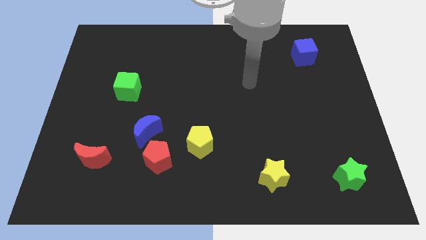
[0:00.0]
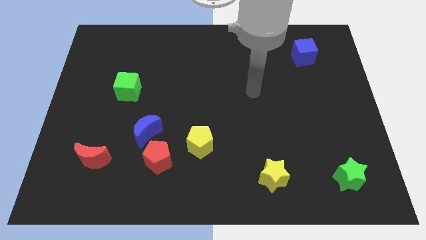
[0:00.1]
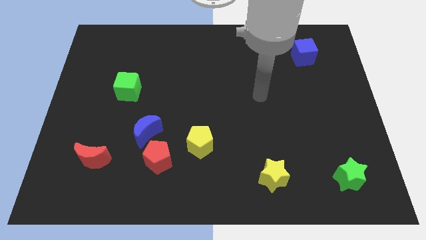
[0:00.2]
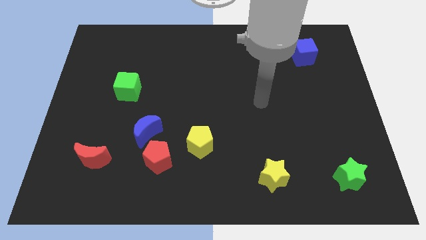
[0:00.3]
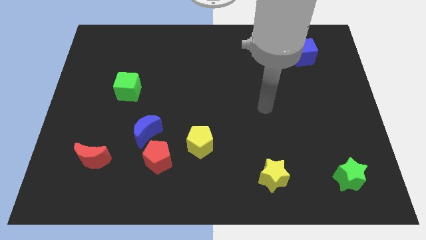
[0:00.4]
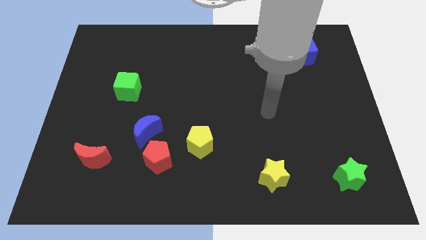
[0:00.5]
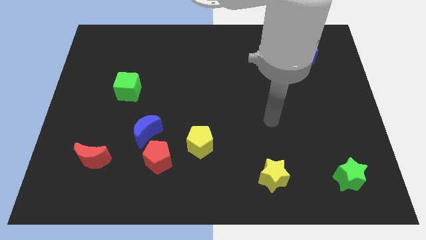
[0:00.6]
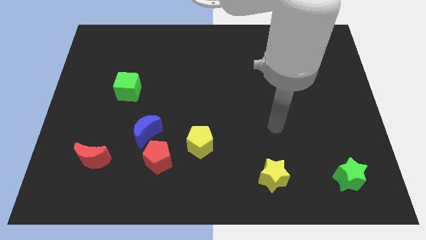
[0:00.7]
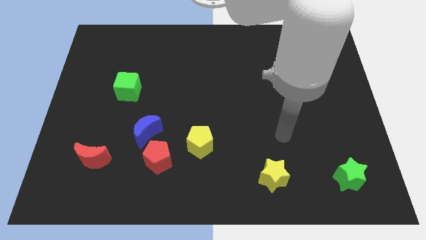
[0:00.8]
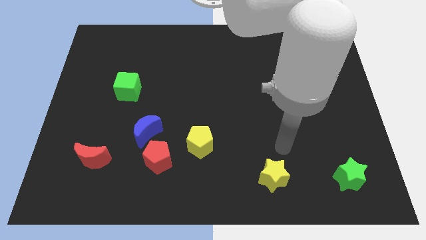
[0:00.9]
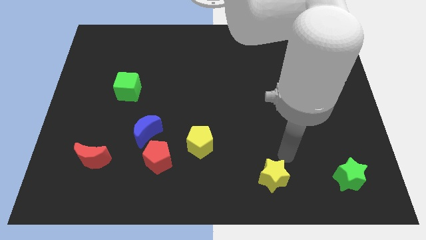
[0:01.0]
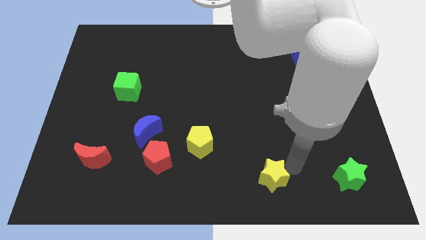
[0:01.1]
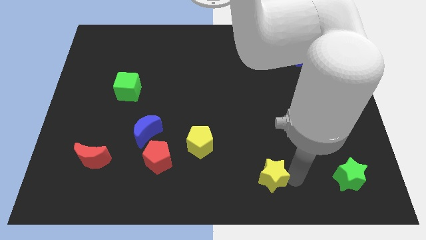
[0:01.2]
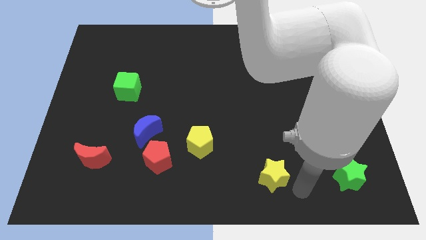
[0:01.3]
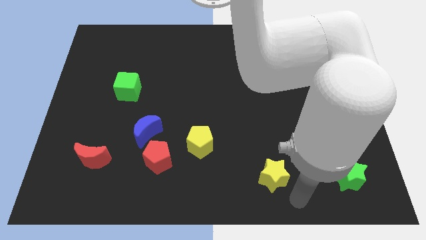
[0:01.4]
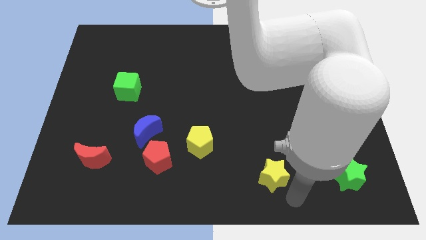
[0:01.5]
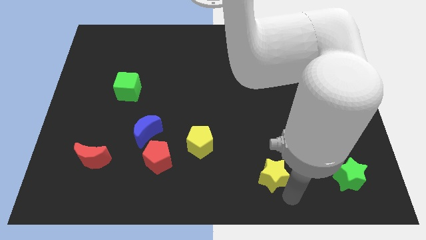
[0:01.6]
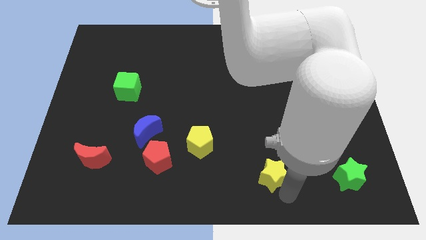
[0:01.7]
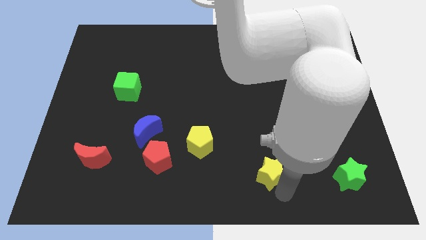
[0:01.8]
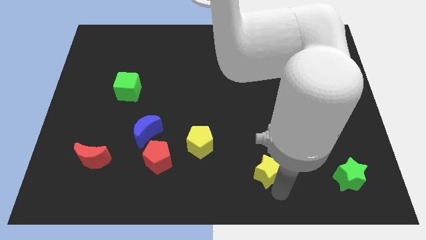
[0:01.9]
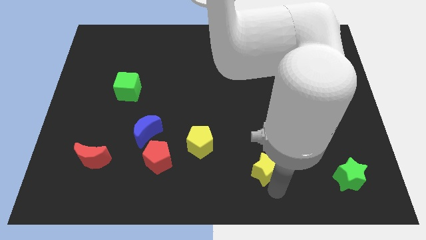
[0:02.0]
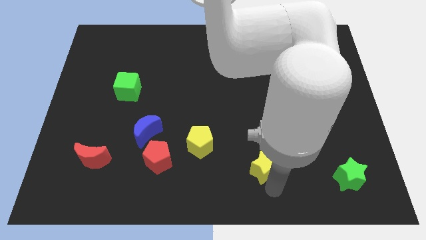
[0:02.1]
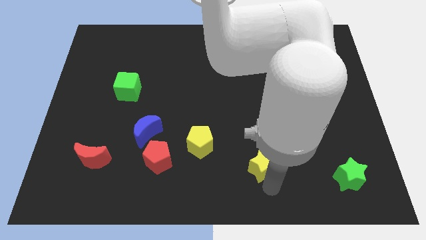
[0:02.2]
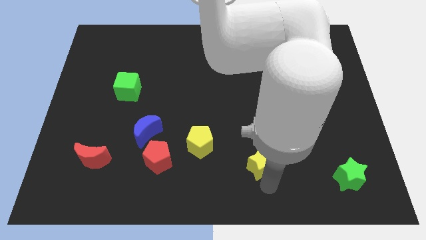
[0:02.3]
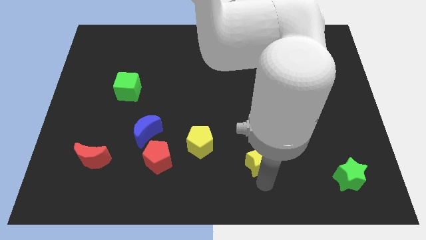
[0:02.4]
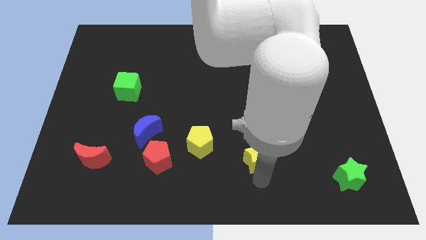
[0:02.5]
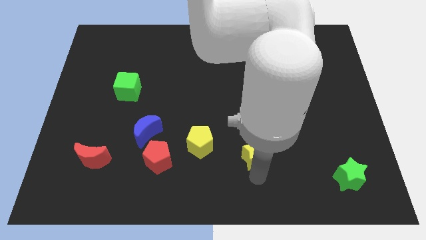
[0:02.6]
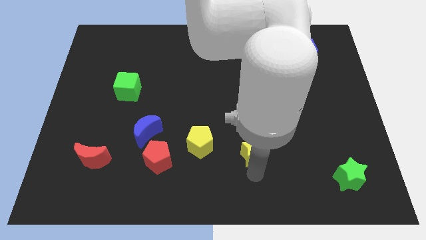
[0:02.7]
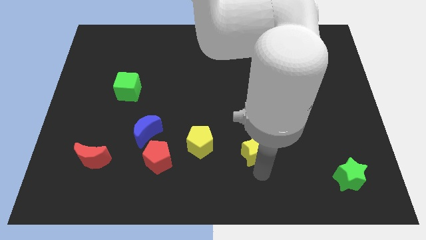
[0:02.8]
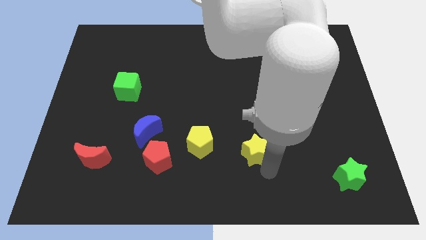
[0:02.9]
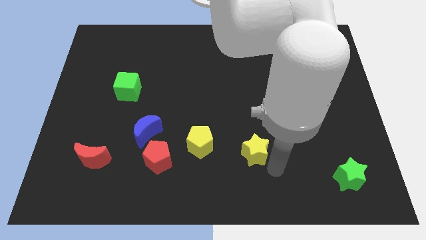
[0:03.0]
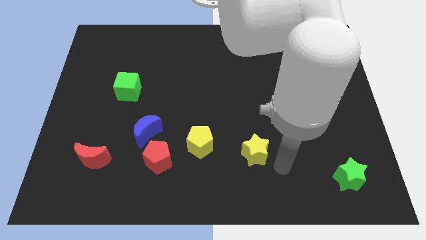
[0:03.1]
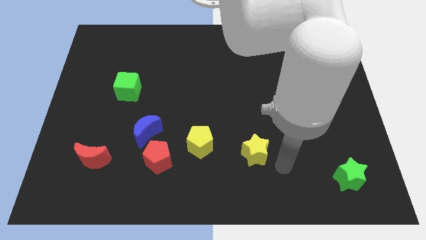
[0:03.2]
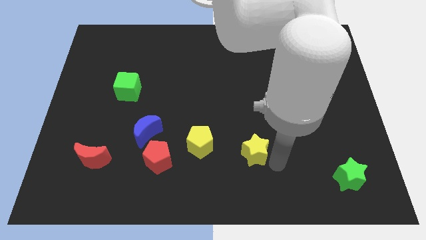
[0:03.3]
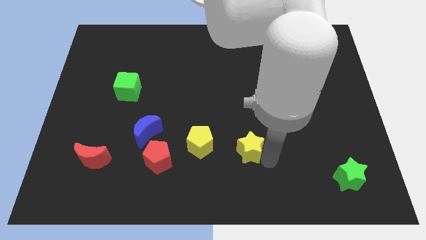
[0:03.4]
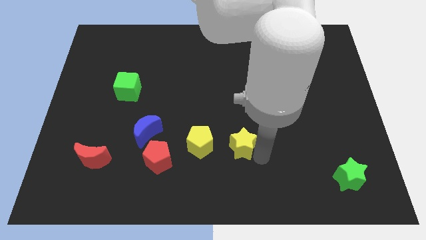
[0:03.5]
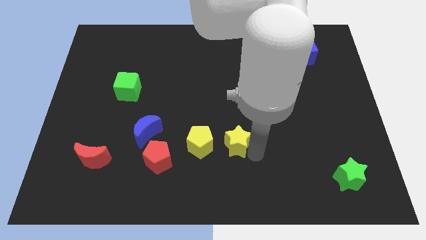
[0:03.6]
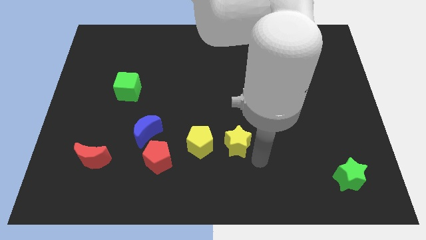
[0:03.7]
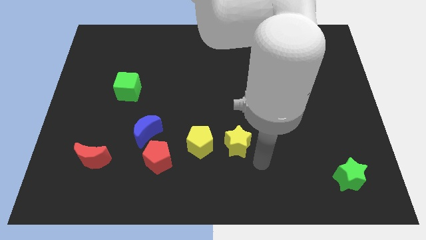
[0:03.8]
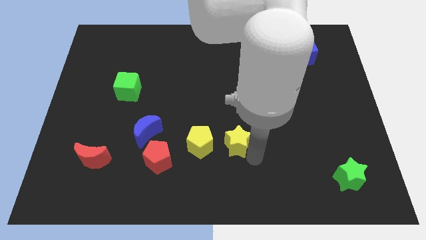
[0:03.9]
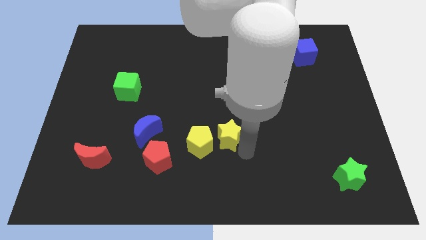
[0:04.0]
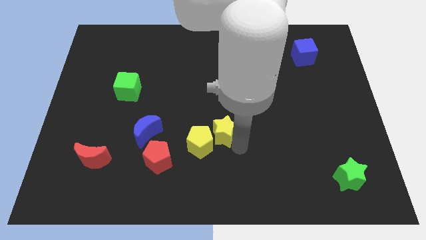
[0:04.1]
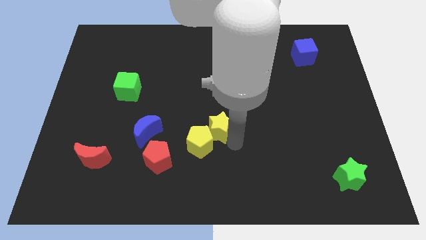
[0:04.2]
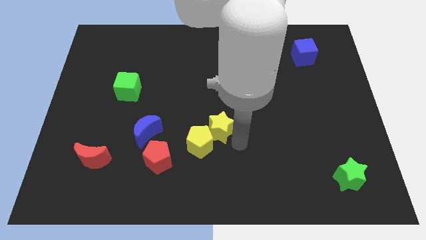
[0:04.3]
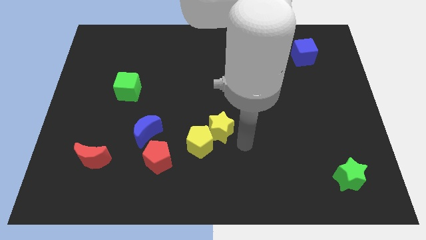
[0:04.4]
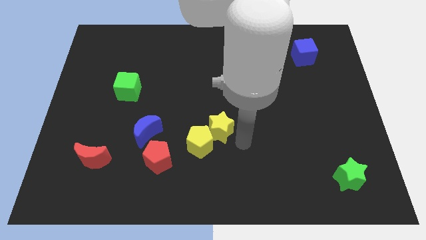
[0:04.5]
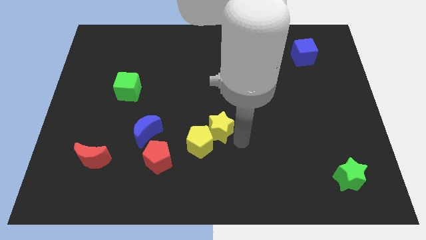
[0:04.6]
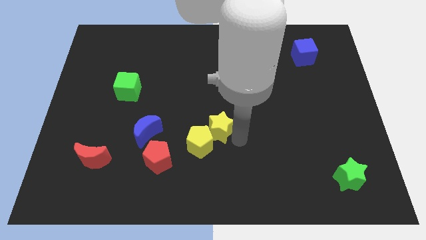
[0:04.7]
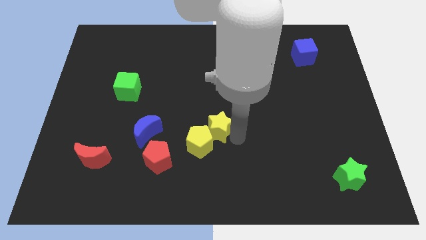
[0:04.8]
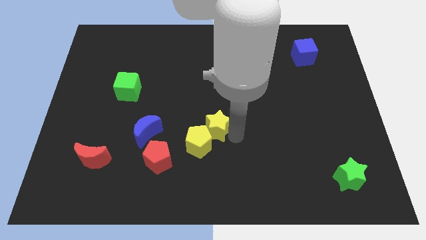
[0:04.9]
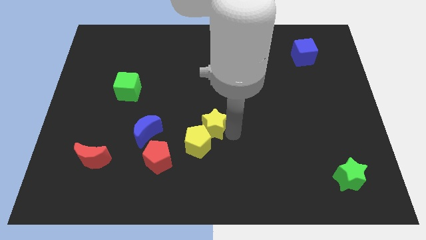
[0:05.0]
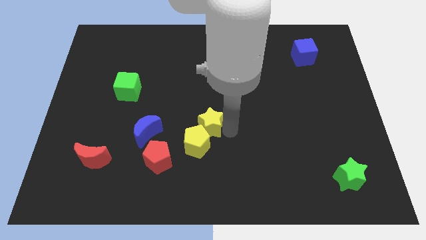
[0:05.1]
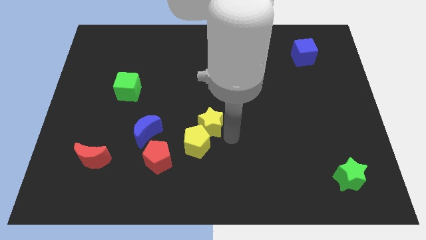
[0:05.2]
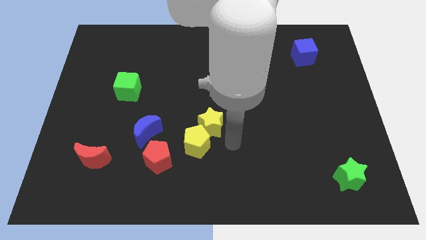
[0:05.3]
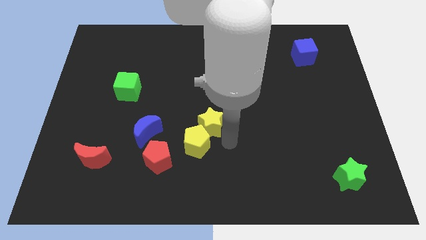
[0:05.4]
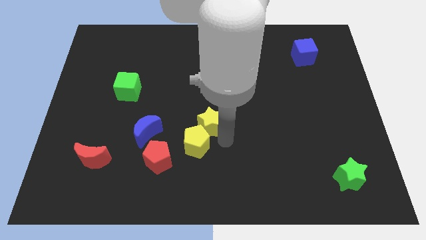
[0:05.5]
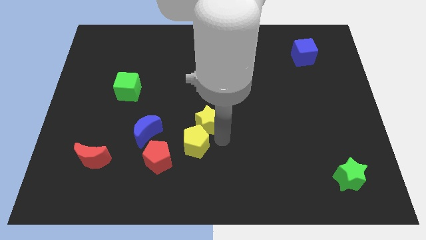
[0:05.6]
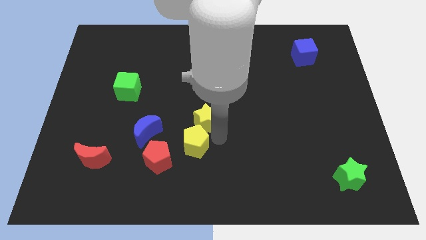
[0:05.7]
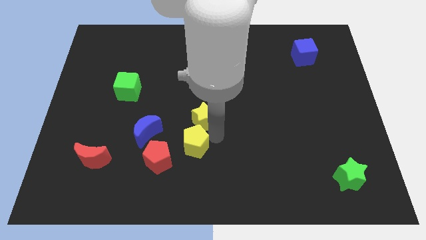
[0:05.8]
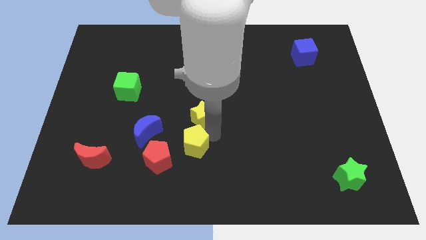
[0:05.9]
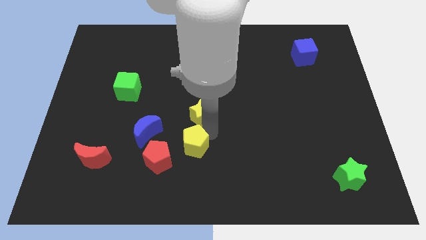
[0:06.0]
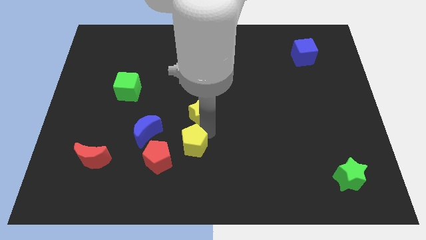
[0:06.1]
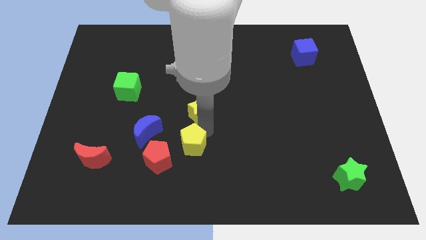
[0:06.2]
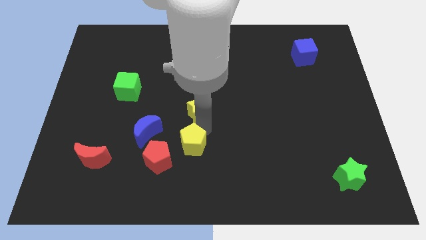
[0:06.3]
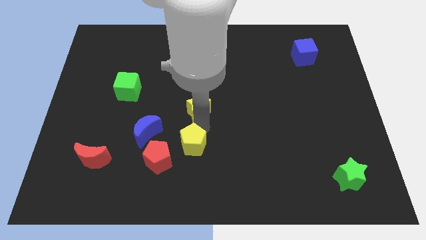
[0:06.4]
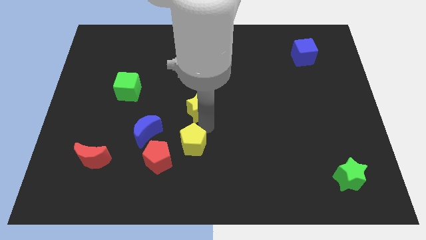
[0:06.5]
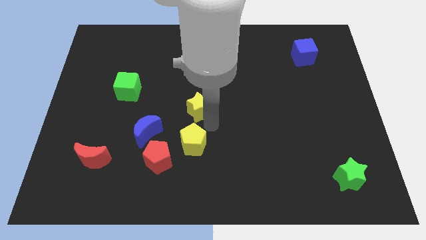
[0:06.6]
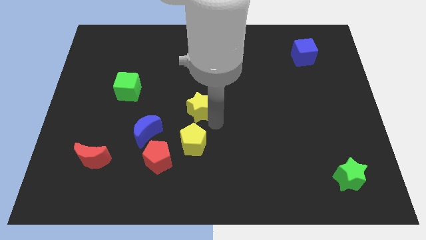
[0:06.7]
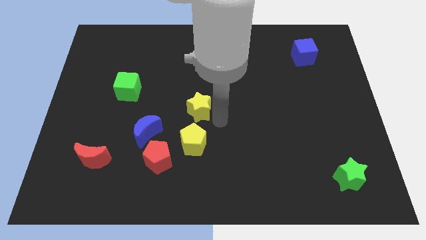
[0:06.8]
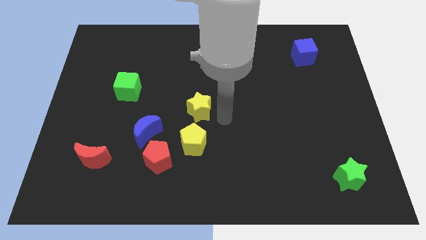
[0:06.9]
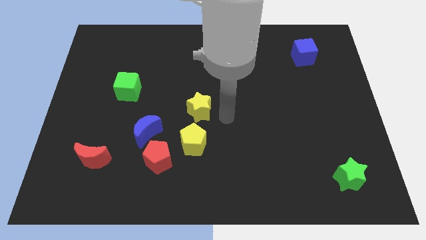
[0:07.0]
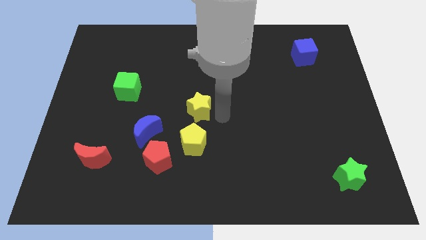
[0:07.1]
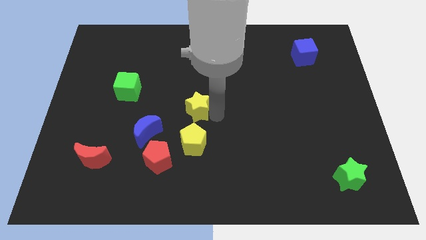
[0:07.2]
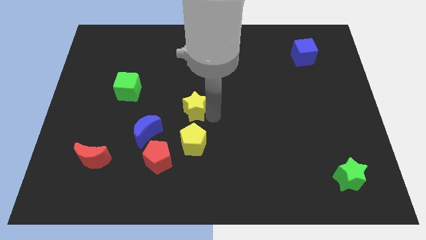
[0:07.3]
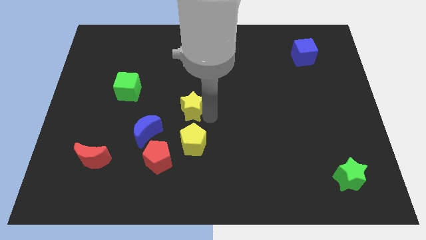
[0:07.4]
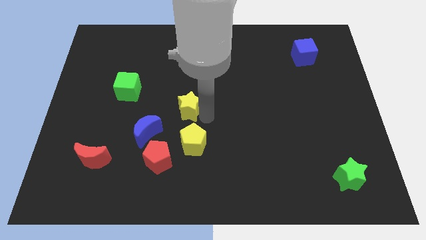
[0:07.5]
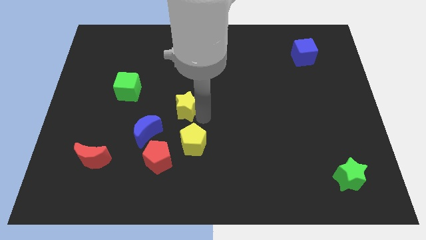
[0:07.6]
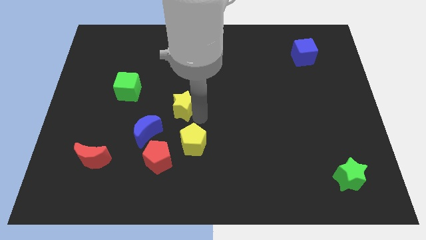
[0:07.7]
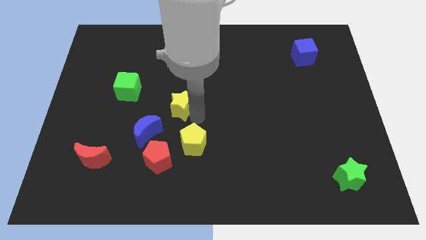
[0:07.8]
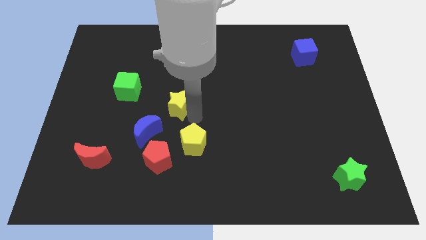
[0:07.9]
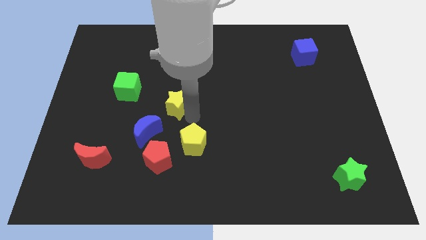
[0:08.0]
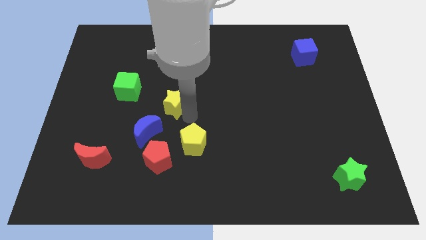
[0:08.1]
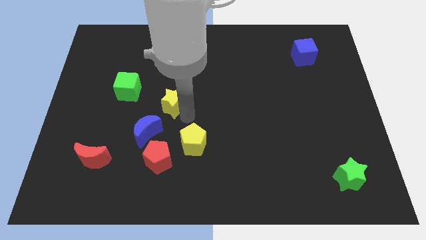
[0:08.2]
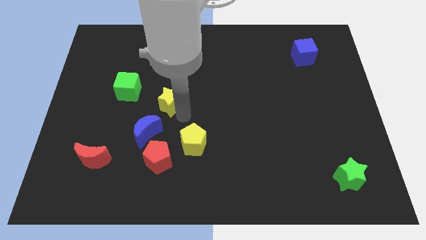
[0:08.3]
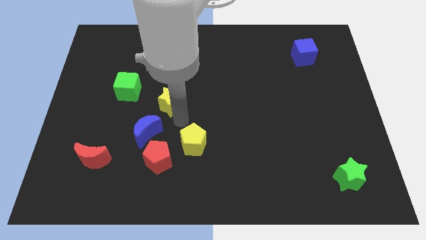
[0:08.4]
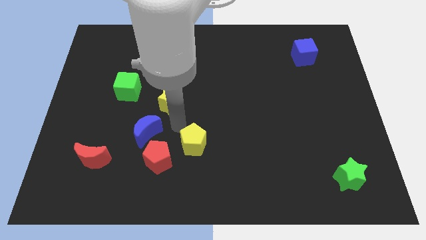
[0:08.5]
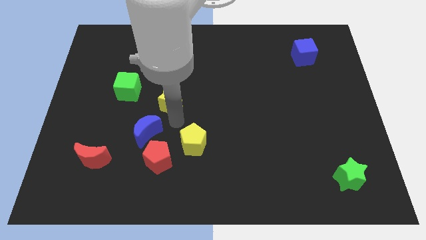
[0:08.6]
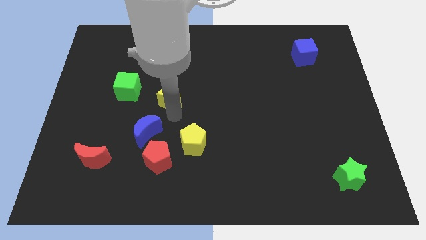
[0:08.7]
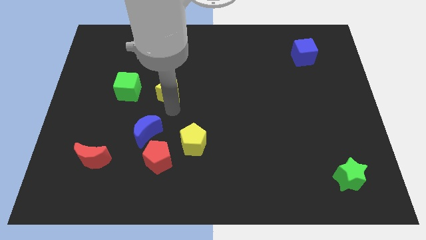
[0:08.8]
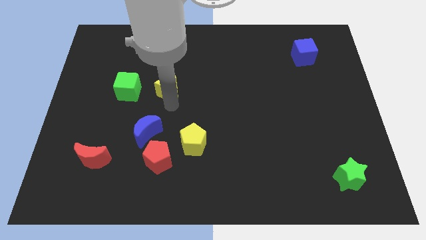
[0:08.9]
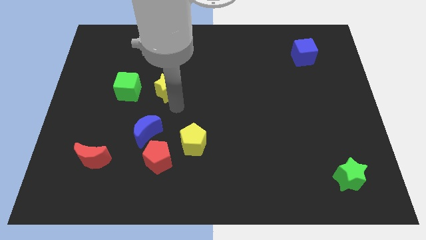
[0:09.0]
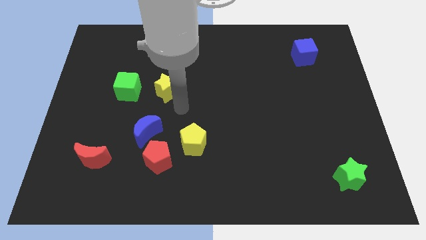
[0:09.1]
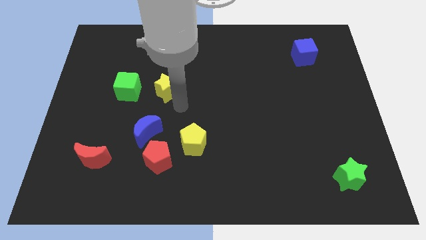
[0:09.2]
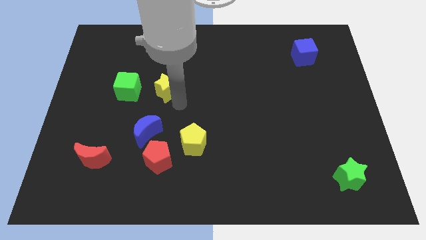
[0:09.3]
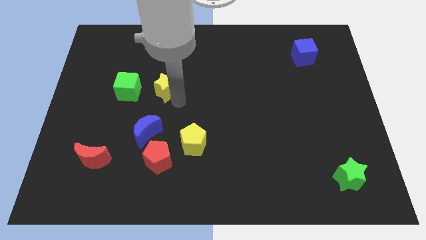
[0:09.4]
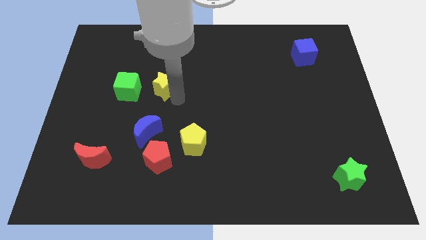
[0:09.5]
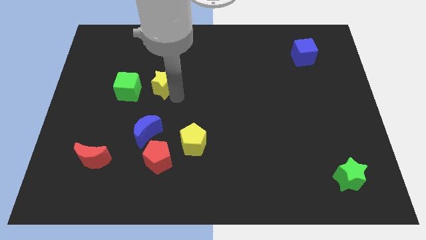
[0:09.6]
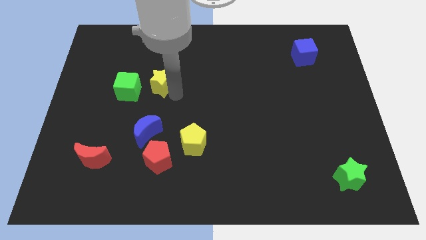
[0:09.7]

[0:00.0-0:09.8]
push the yellow star to the top right of the green cube
